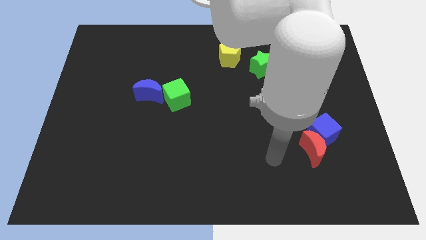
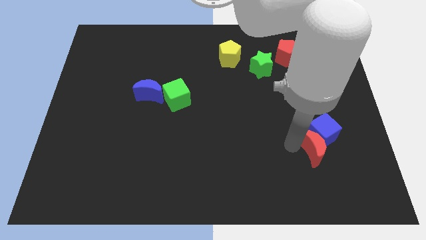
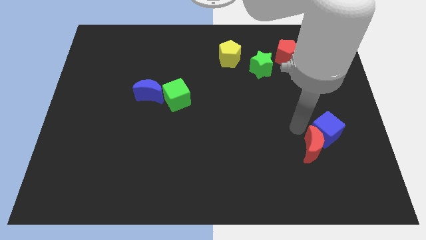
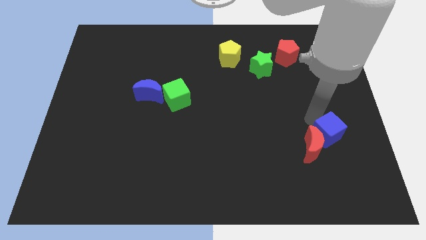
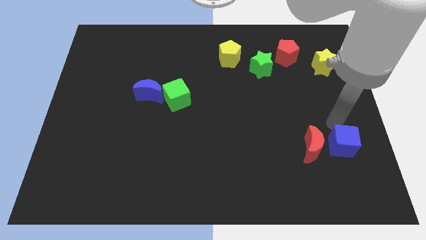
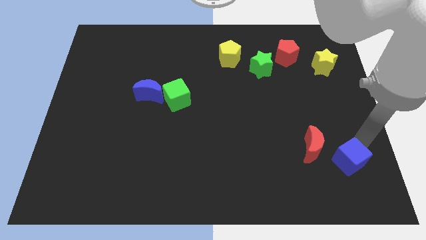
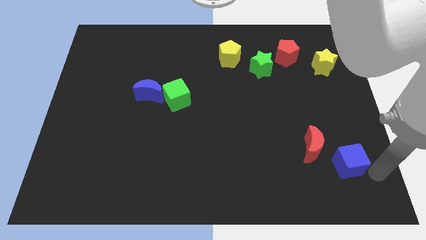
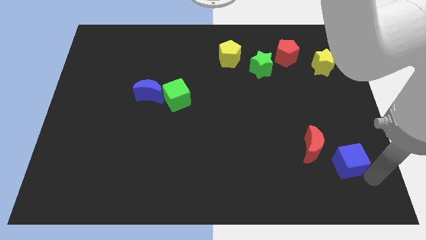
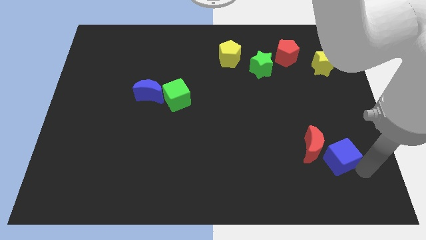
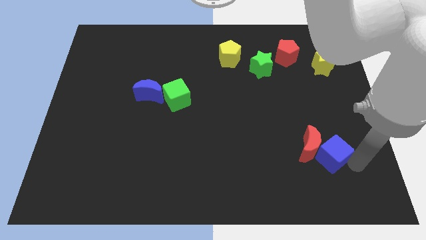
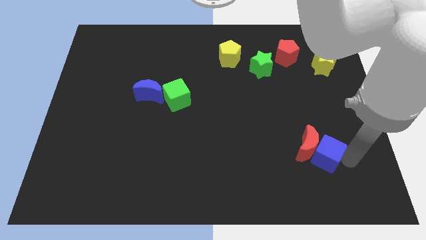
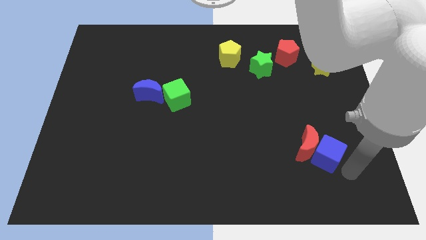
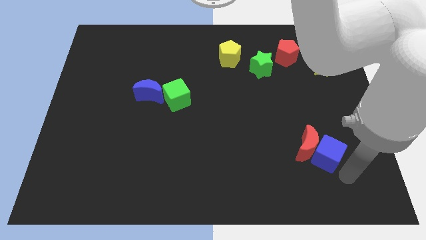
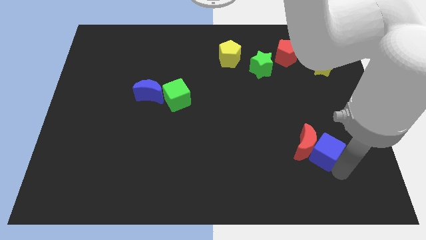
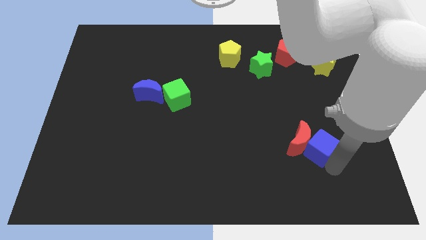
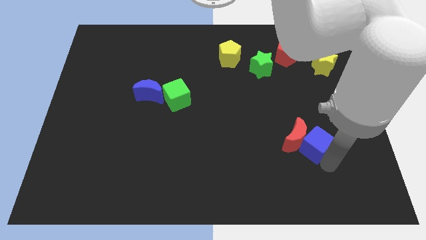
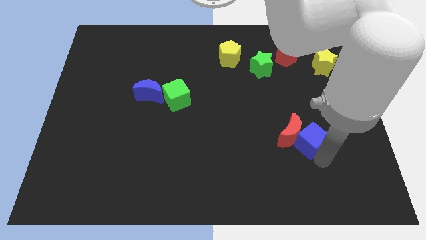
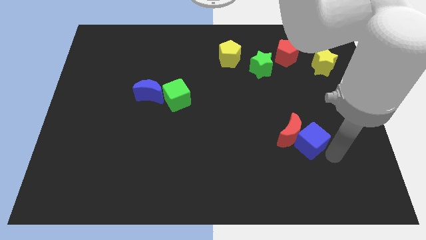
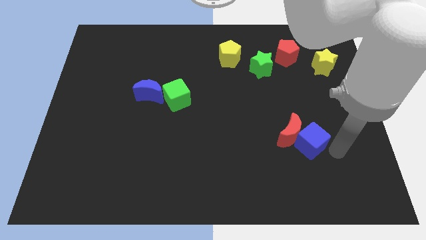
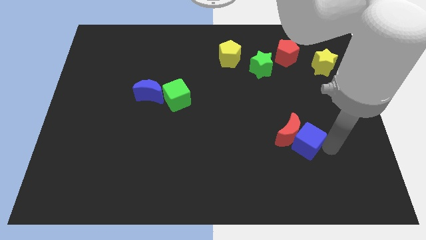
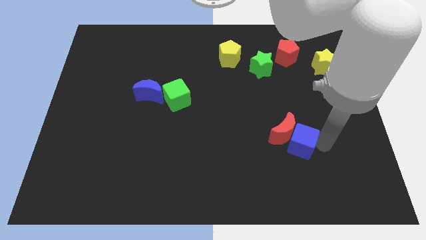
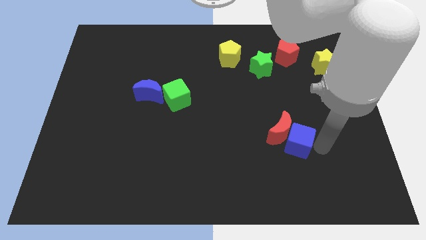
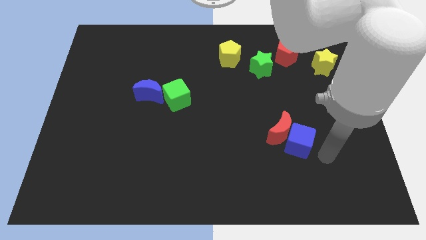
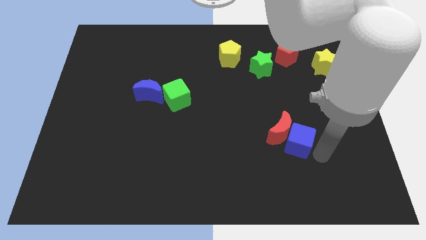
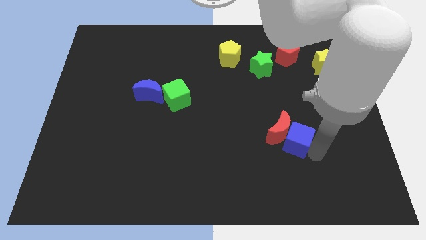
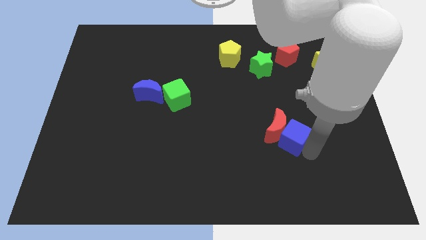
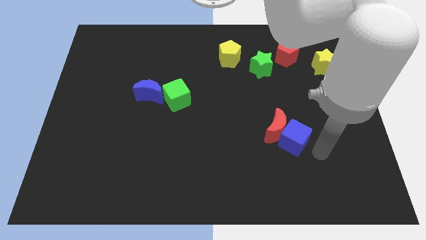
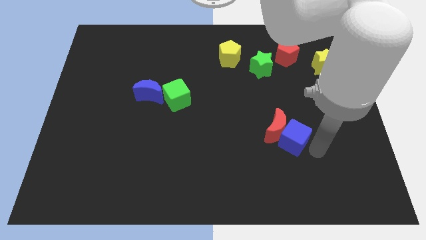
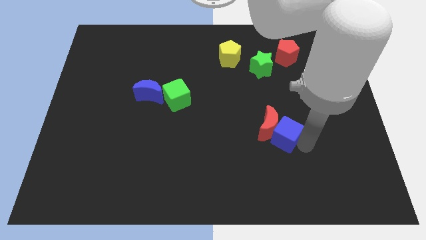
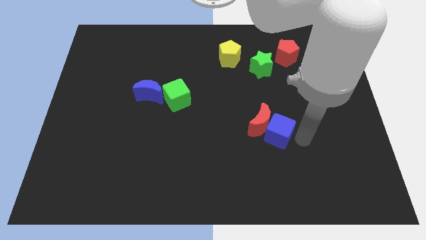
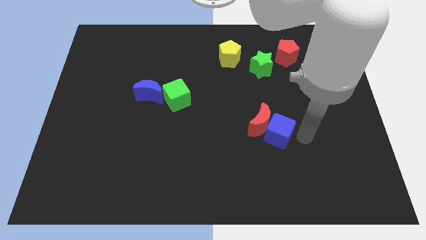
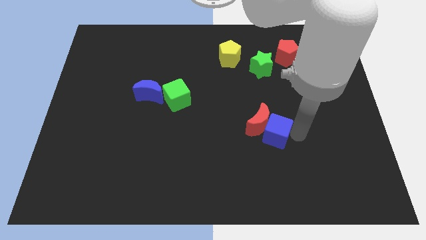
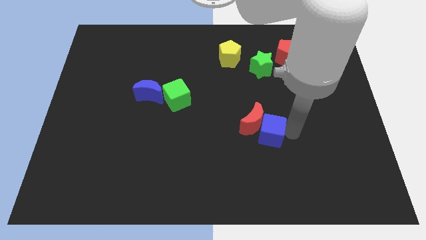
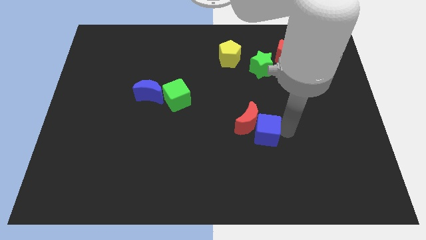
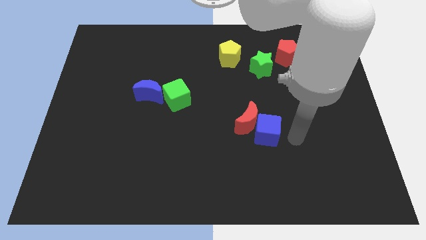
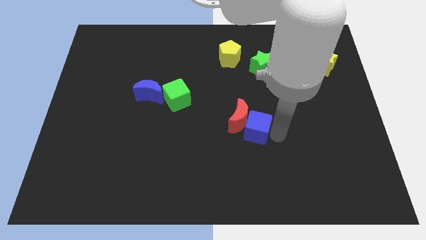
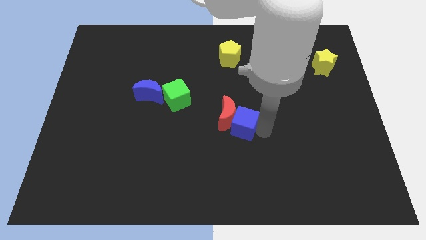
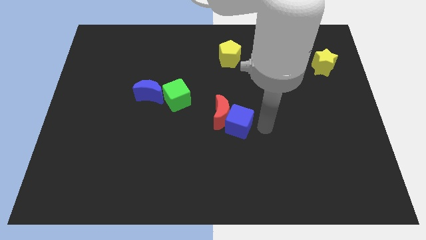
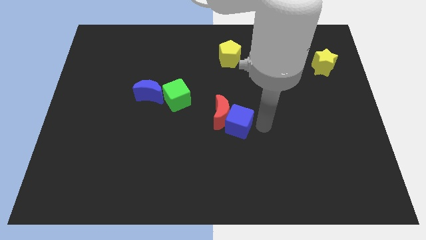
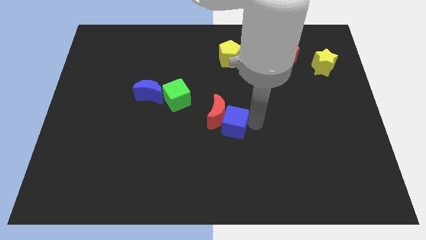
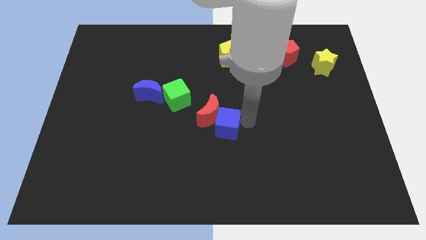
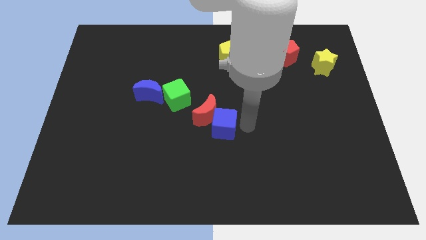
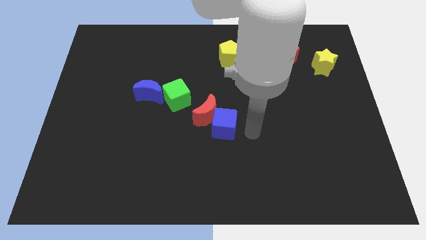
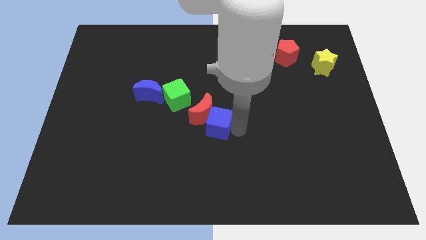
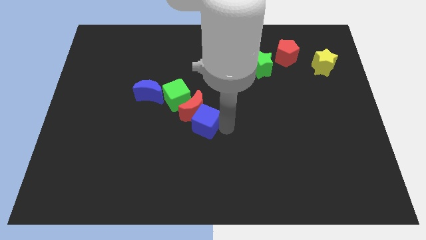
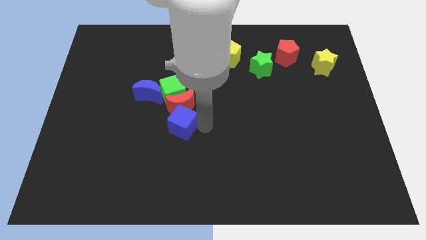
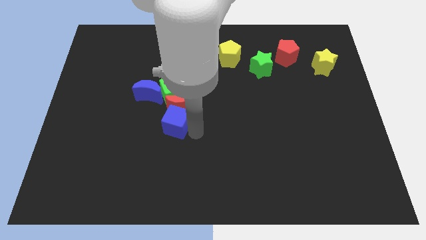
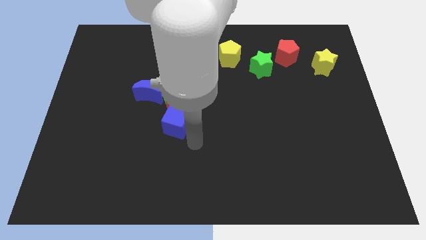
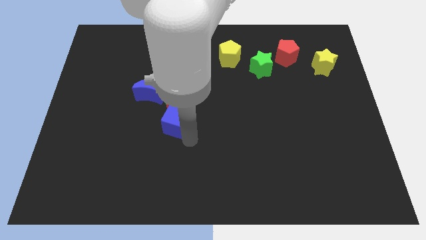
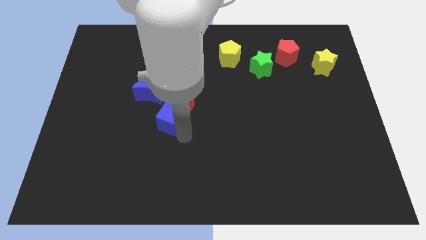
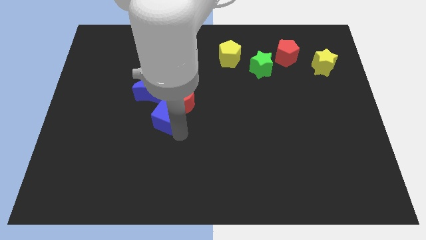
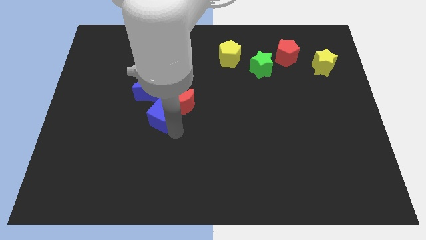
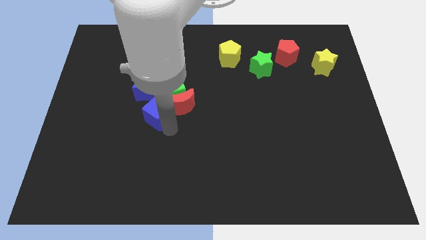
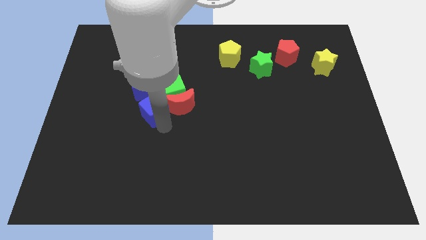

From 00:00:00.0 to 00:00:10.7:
slide the blue cube close to the blue moon
